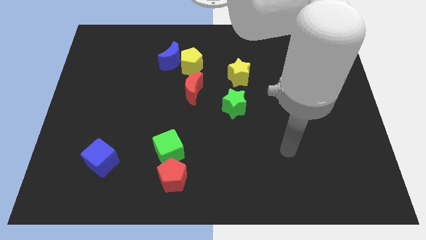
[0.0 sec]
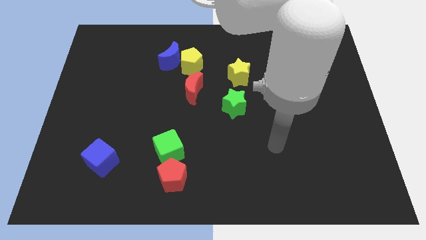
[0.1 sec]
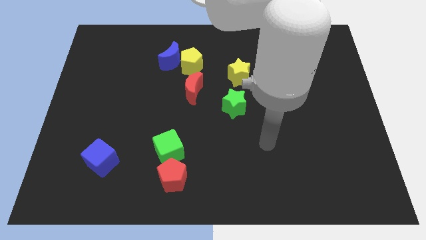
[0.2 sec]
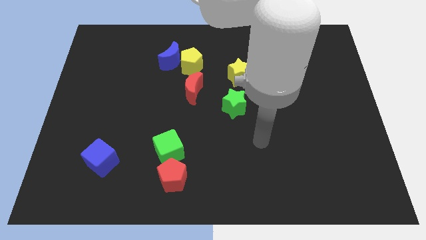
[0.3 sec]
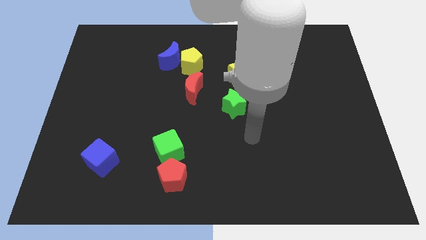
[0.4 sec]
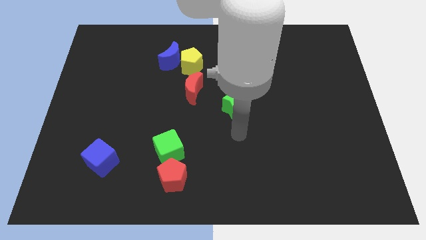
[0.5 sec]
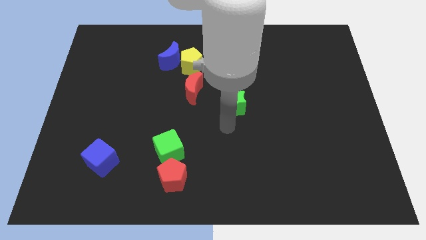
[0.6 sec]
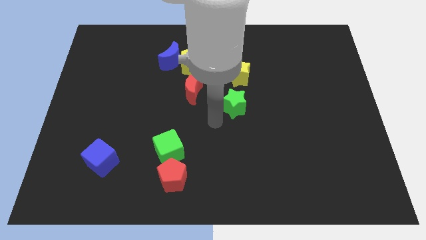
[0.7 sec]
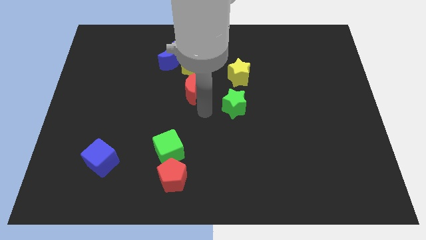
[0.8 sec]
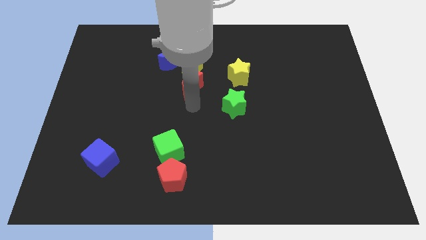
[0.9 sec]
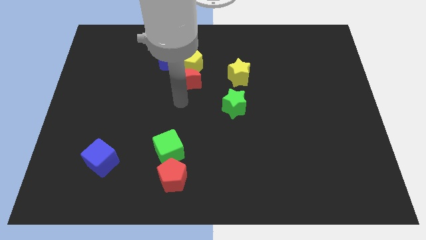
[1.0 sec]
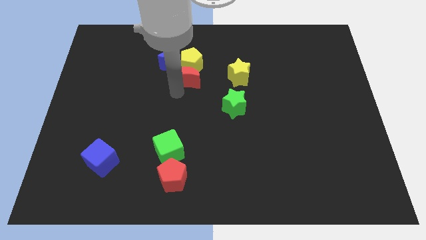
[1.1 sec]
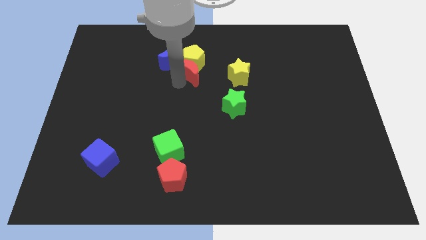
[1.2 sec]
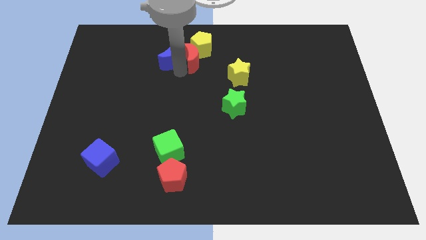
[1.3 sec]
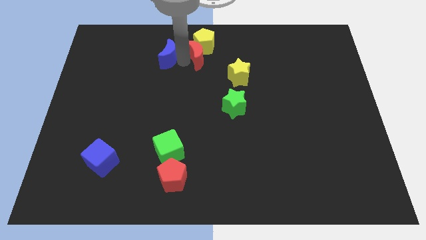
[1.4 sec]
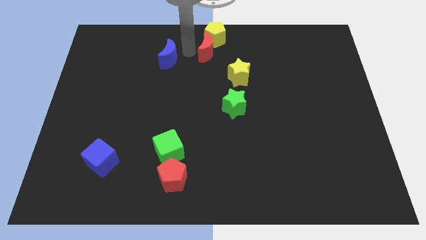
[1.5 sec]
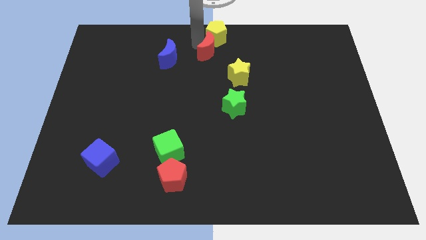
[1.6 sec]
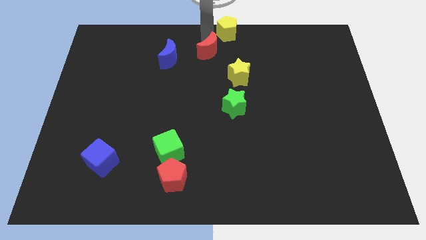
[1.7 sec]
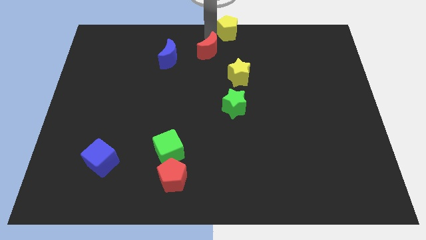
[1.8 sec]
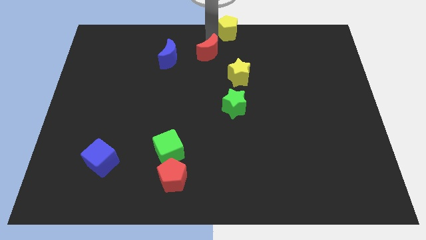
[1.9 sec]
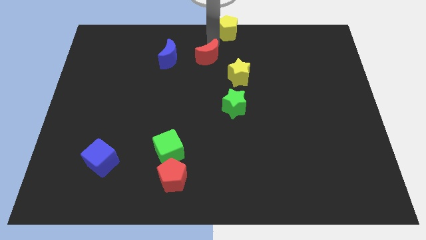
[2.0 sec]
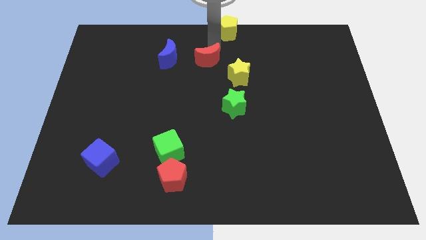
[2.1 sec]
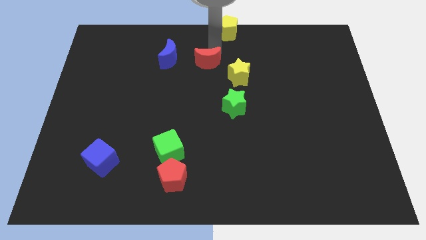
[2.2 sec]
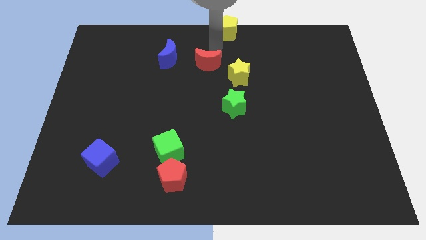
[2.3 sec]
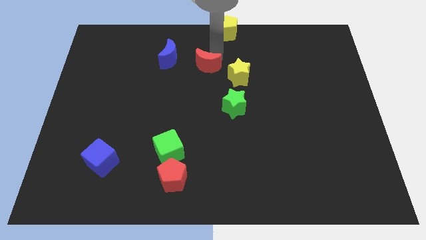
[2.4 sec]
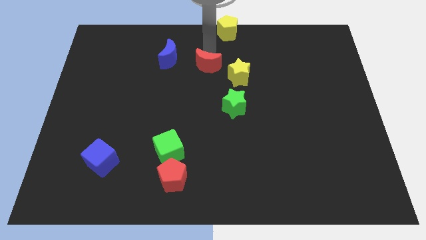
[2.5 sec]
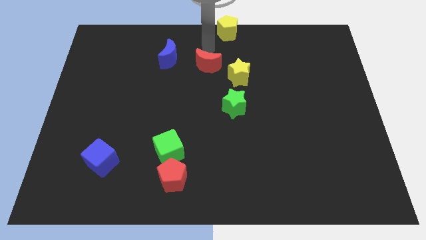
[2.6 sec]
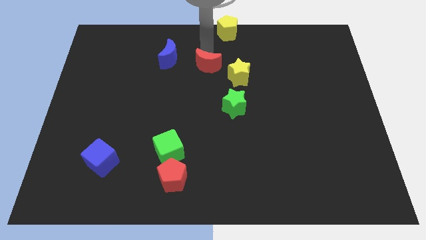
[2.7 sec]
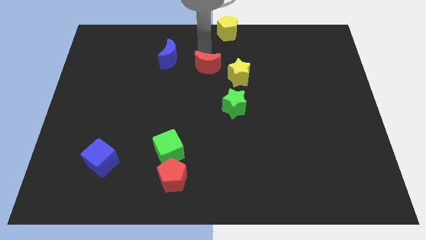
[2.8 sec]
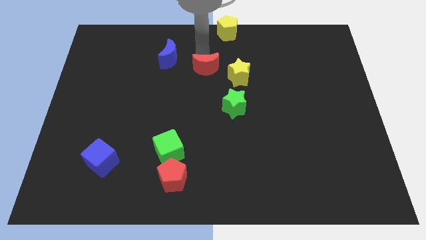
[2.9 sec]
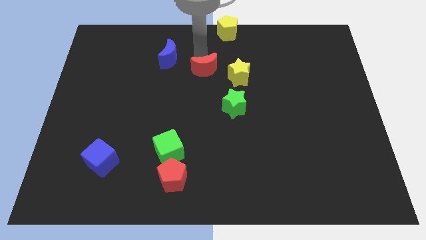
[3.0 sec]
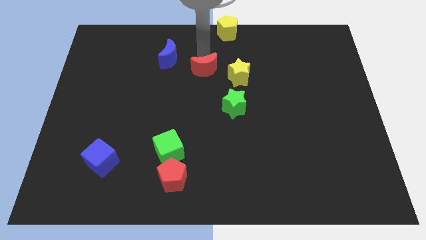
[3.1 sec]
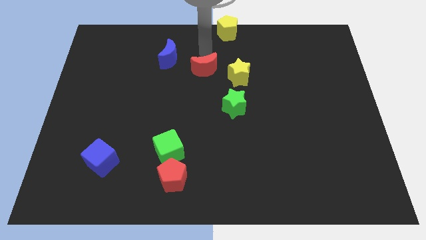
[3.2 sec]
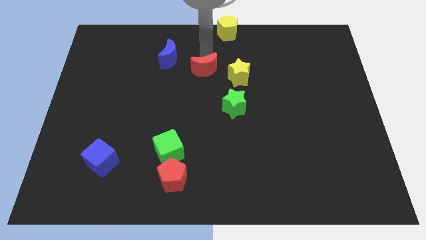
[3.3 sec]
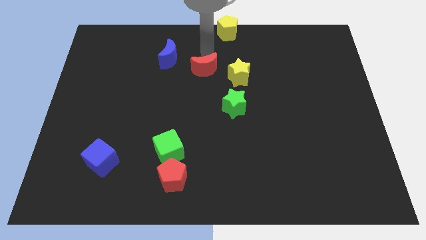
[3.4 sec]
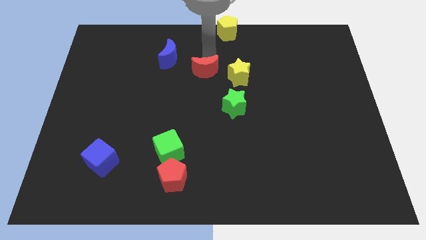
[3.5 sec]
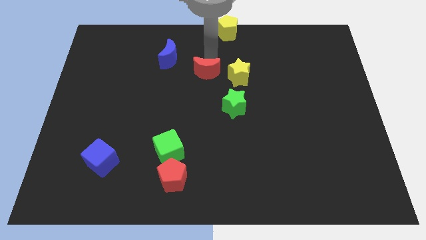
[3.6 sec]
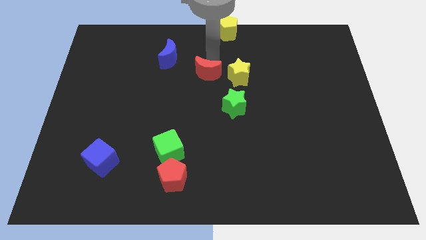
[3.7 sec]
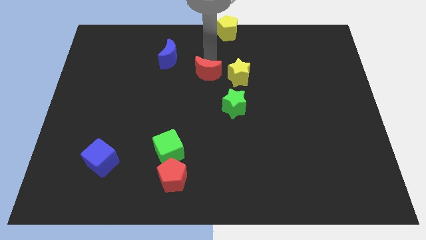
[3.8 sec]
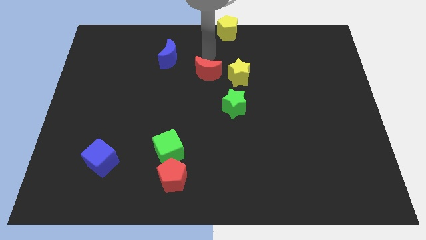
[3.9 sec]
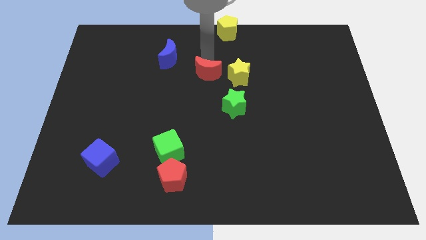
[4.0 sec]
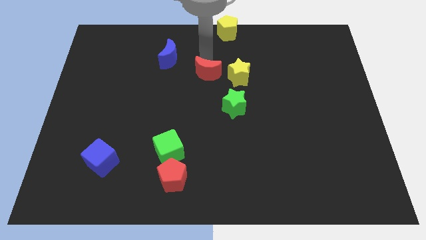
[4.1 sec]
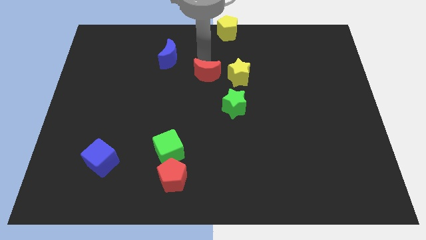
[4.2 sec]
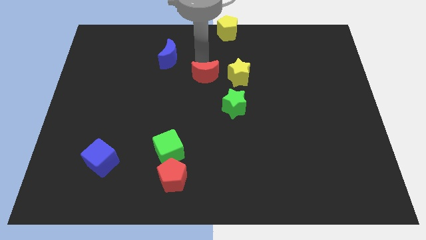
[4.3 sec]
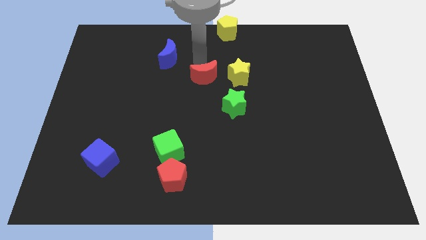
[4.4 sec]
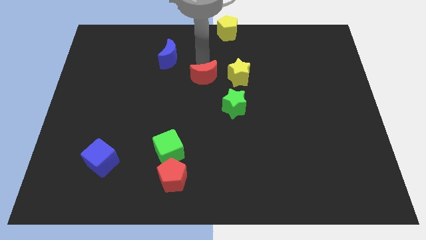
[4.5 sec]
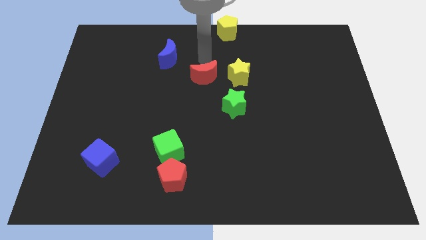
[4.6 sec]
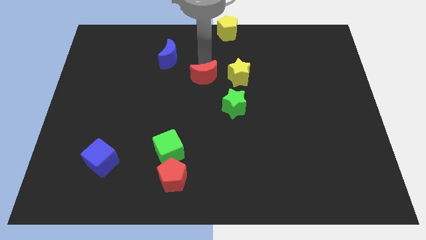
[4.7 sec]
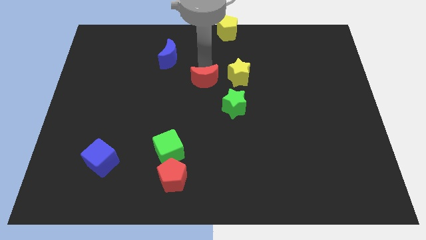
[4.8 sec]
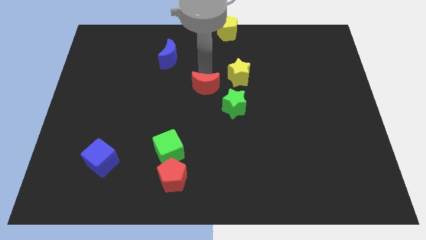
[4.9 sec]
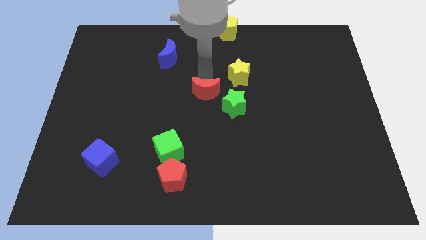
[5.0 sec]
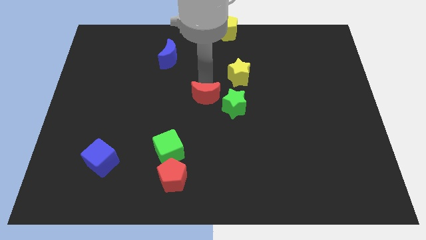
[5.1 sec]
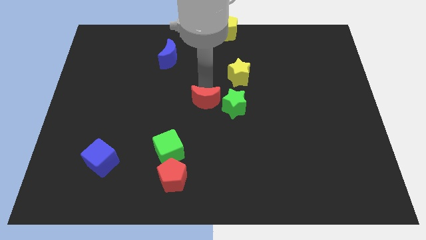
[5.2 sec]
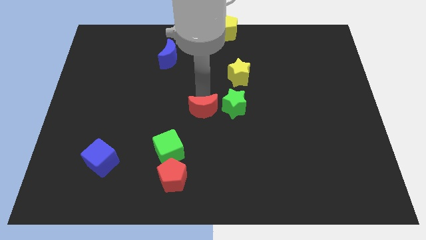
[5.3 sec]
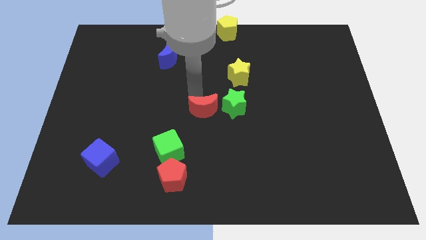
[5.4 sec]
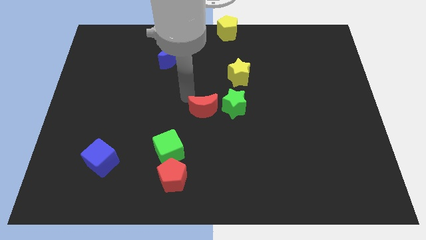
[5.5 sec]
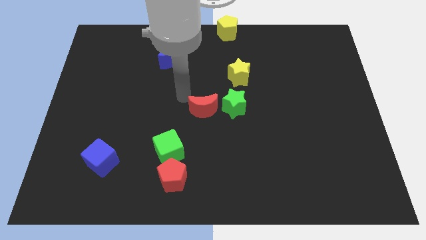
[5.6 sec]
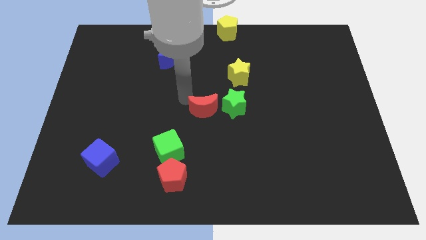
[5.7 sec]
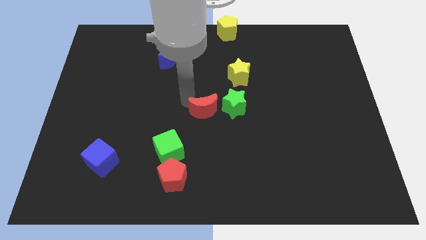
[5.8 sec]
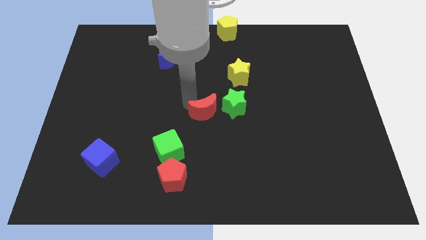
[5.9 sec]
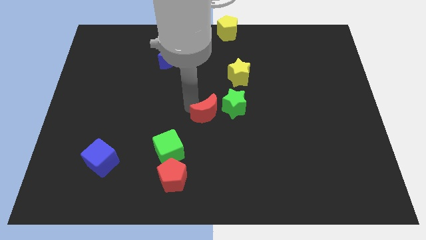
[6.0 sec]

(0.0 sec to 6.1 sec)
slide the red moon down and then right a bit

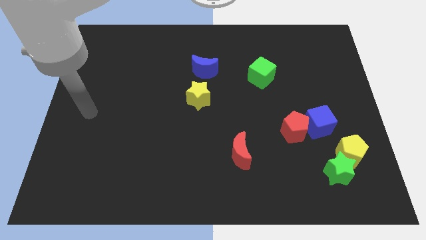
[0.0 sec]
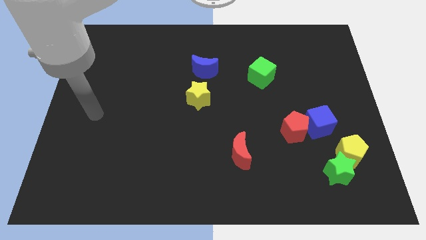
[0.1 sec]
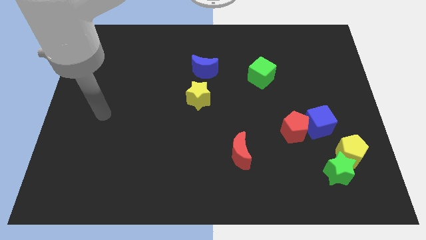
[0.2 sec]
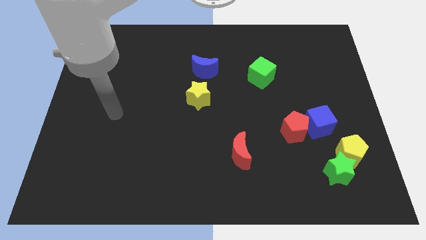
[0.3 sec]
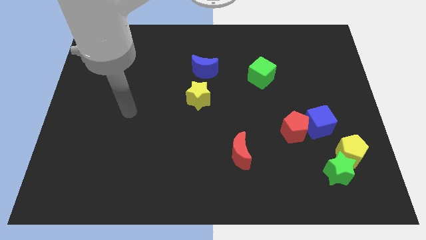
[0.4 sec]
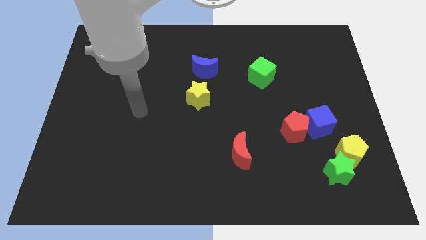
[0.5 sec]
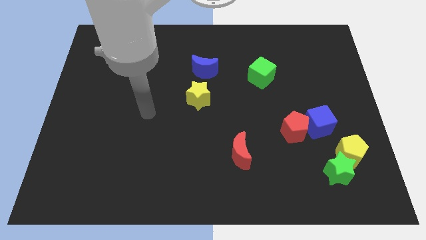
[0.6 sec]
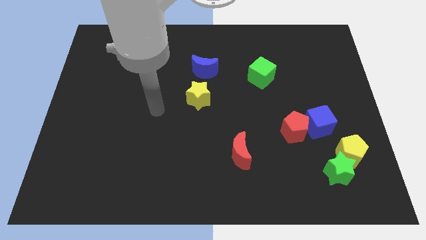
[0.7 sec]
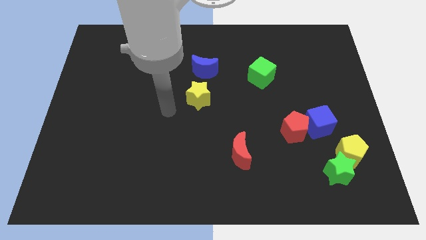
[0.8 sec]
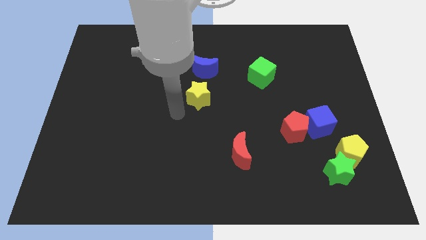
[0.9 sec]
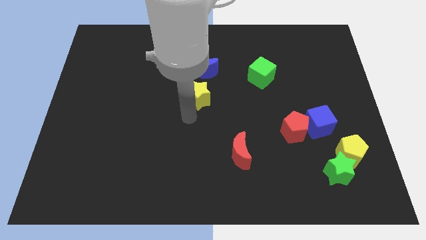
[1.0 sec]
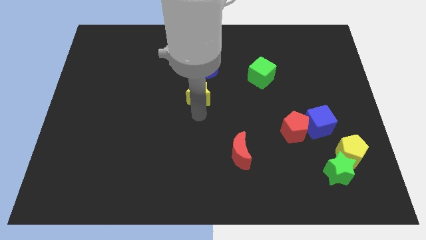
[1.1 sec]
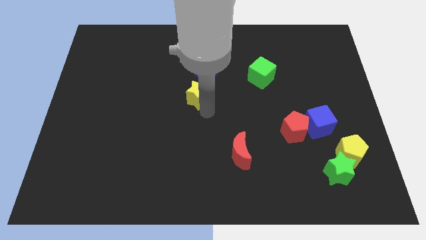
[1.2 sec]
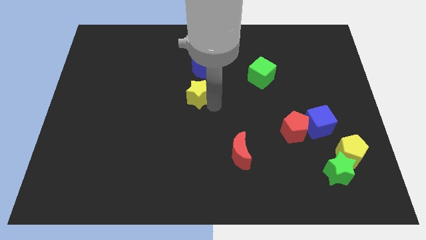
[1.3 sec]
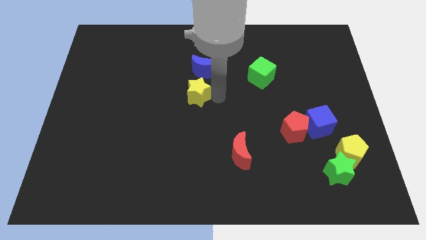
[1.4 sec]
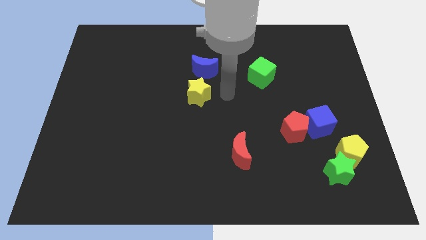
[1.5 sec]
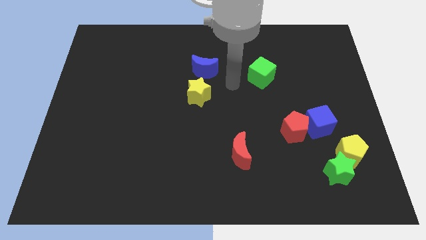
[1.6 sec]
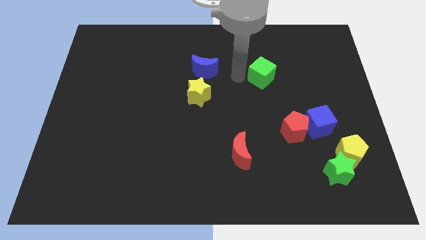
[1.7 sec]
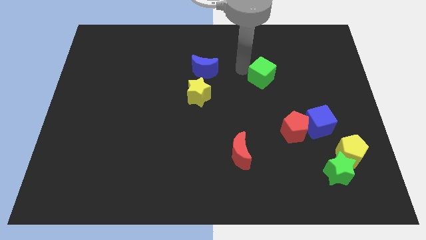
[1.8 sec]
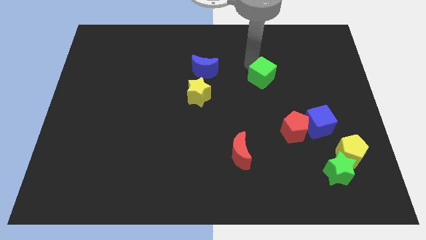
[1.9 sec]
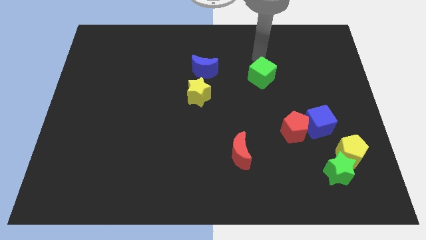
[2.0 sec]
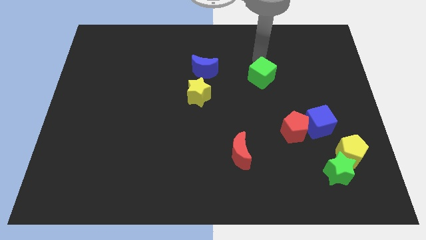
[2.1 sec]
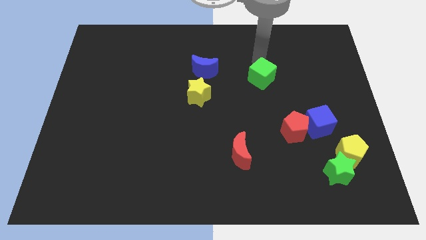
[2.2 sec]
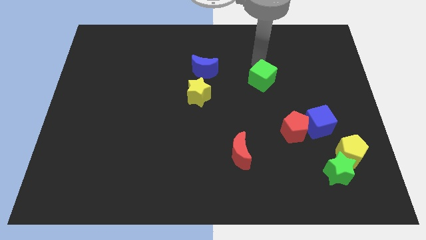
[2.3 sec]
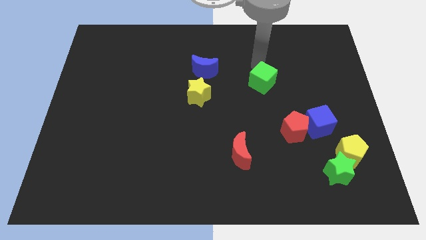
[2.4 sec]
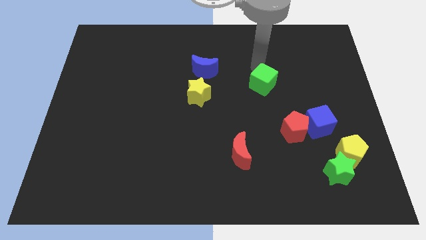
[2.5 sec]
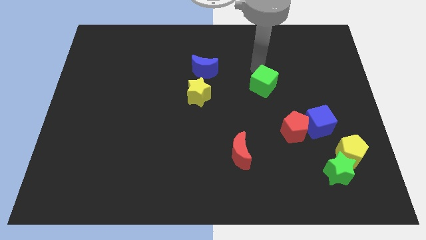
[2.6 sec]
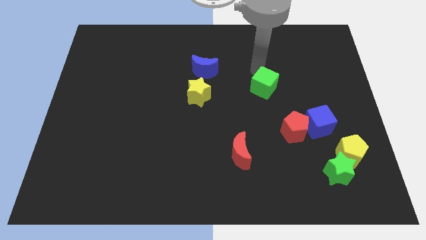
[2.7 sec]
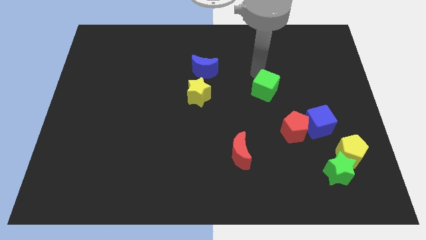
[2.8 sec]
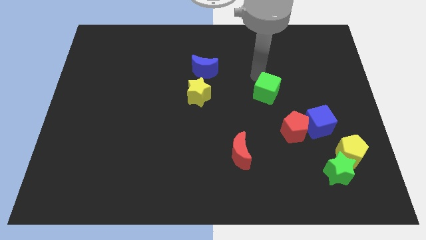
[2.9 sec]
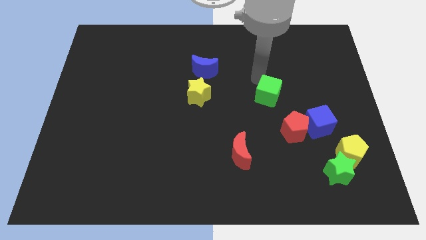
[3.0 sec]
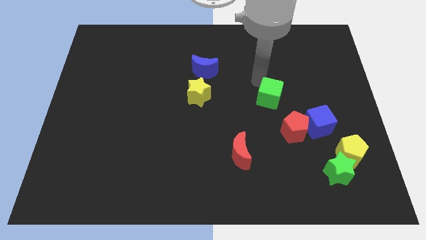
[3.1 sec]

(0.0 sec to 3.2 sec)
move the green cube downwards a little bit
